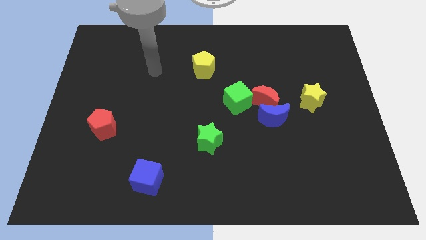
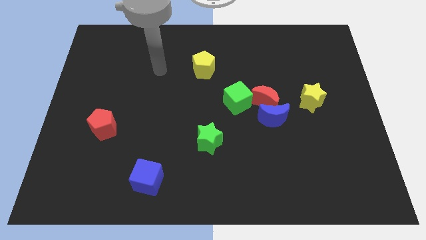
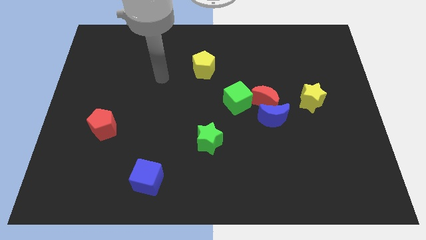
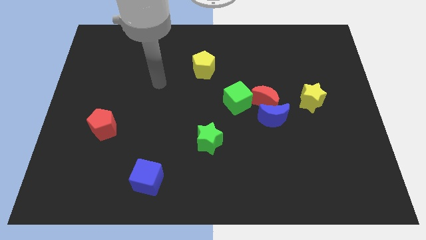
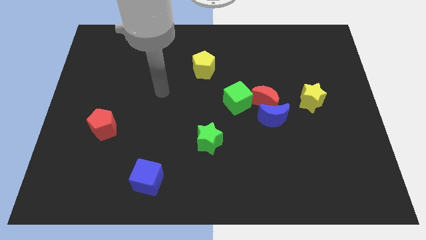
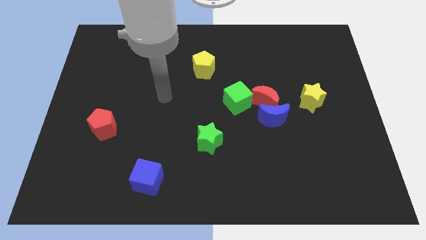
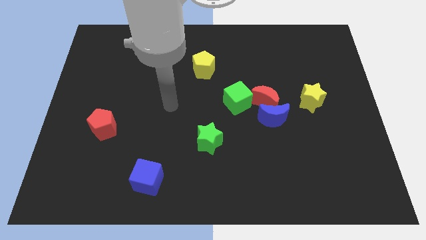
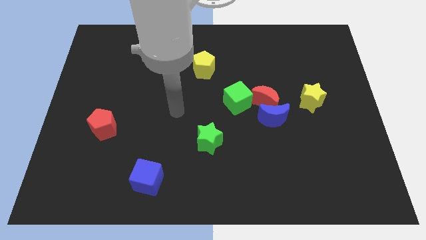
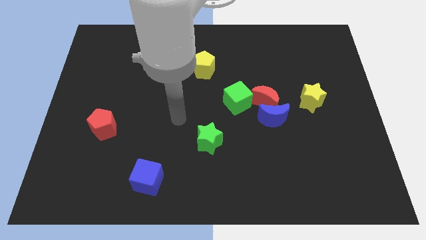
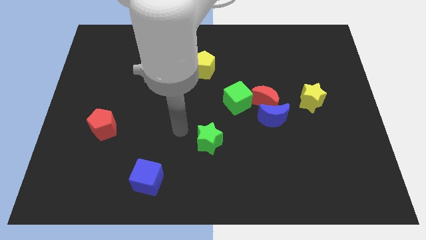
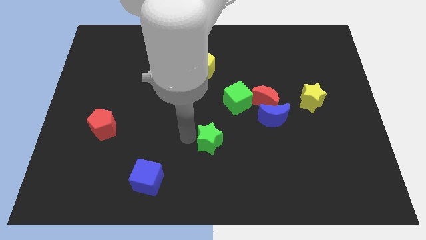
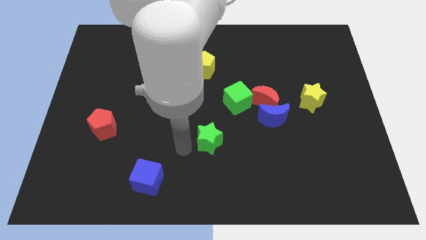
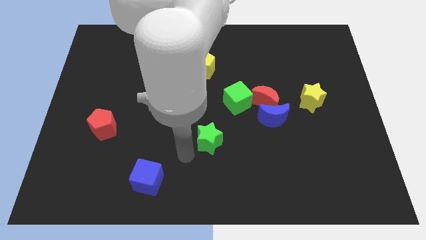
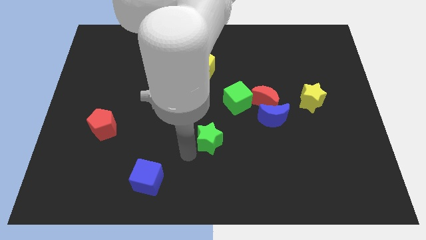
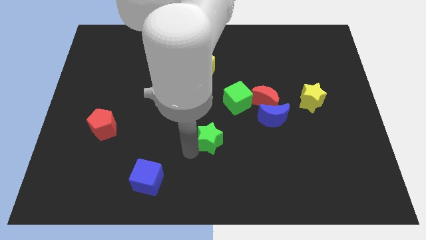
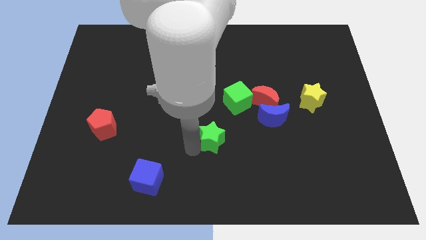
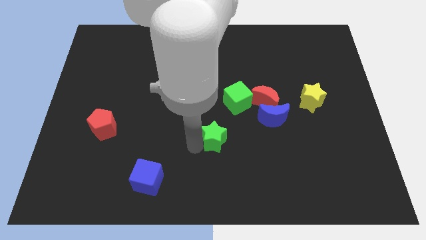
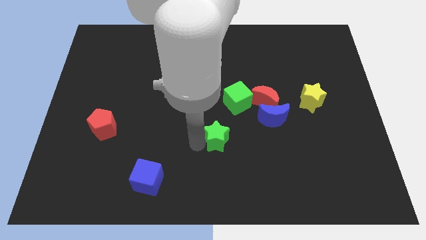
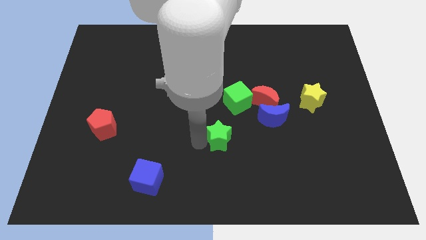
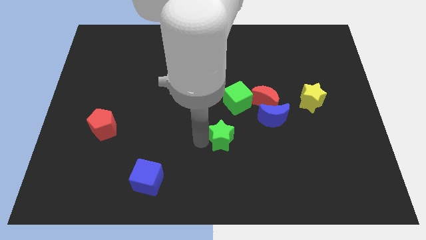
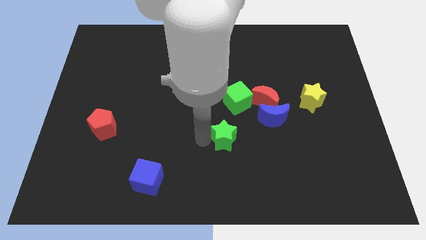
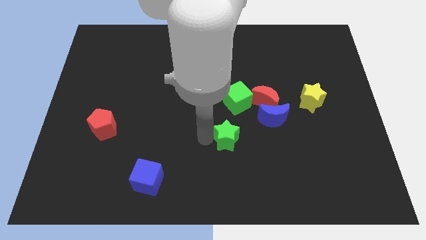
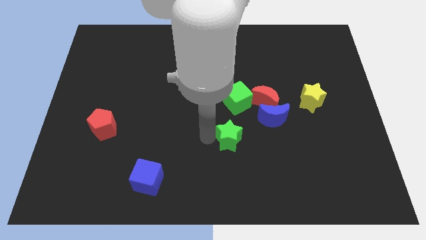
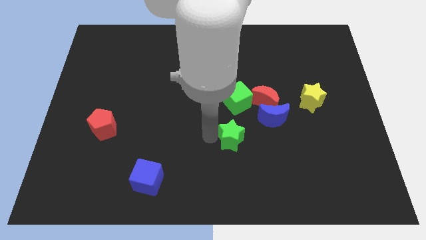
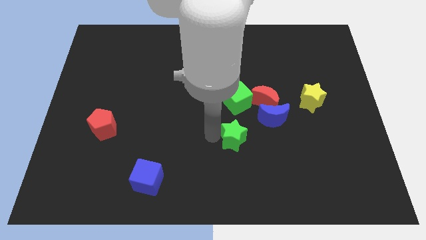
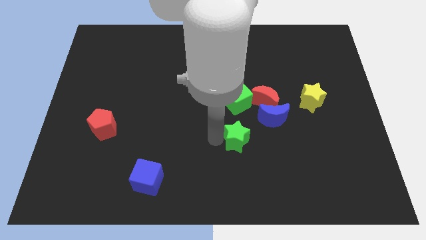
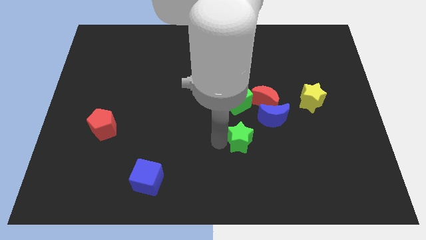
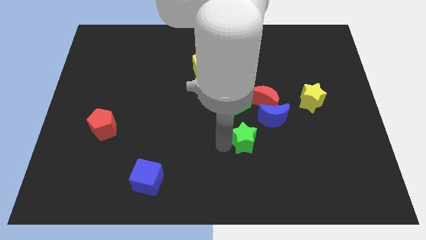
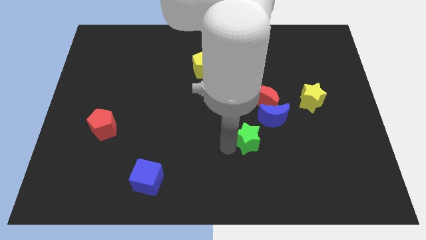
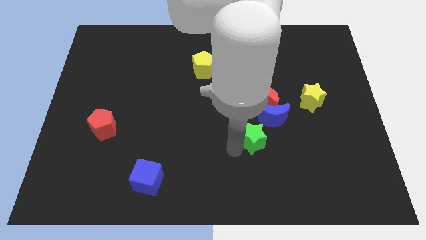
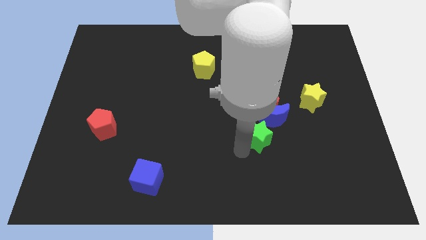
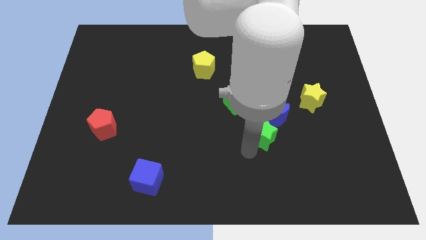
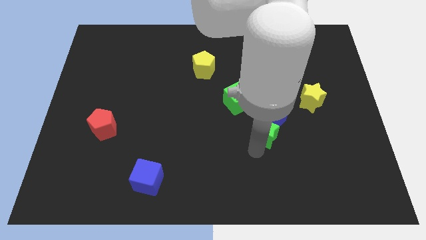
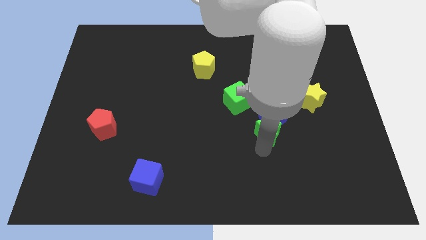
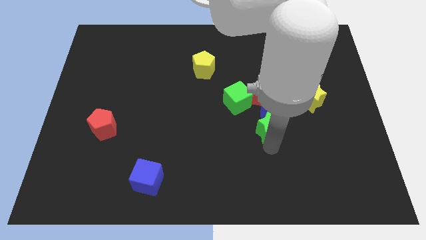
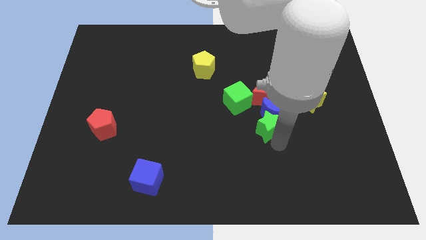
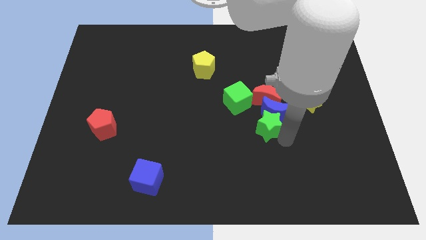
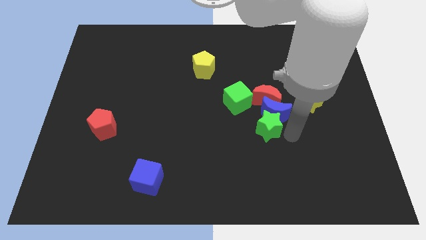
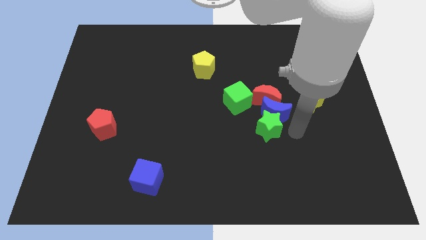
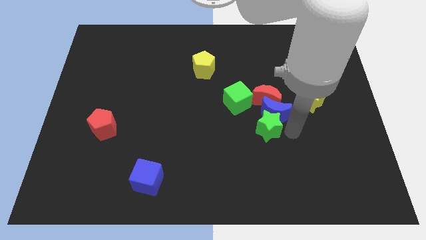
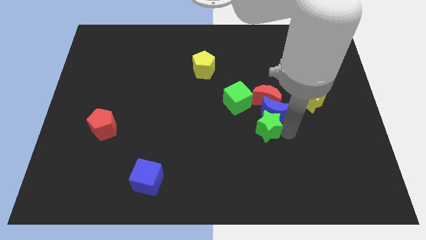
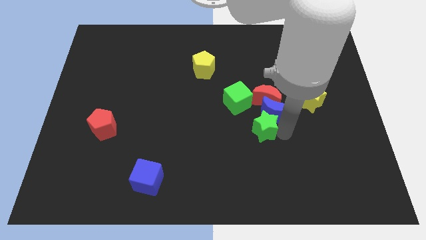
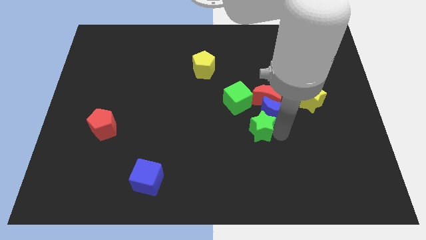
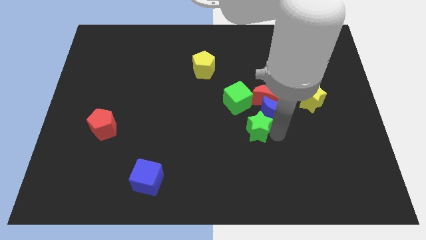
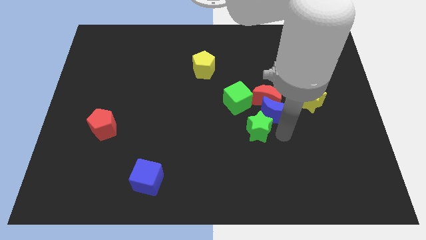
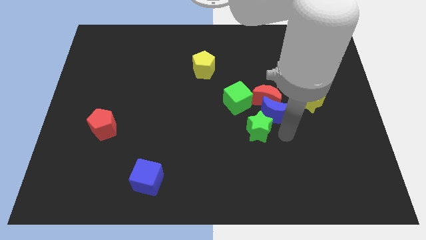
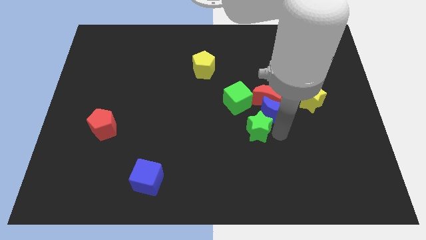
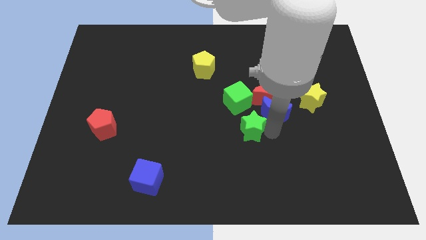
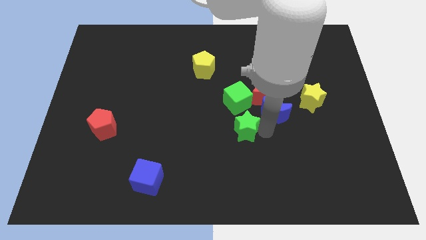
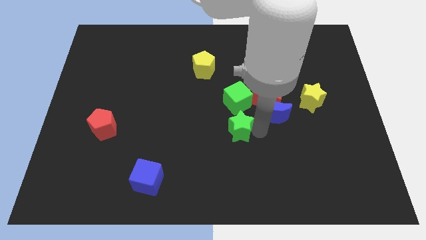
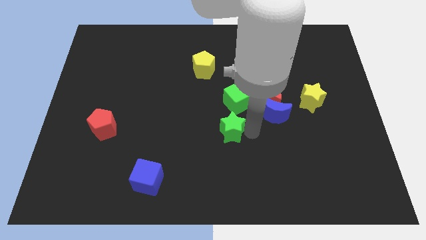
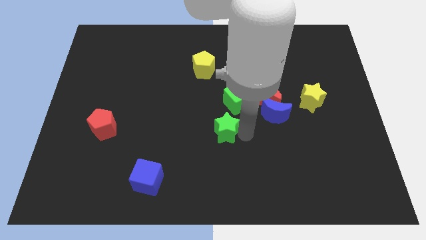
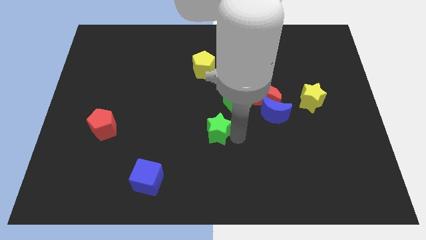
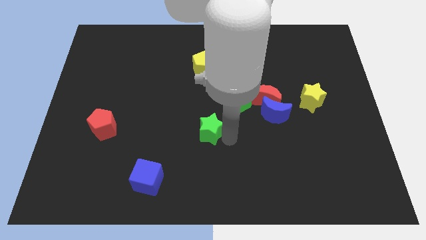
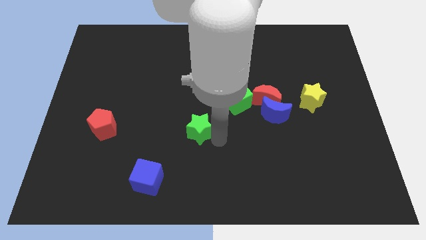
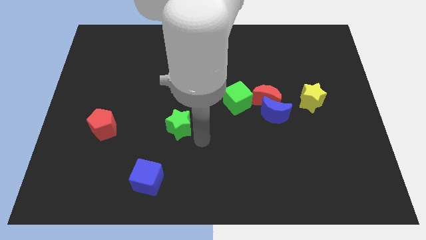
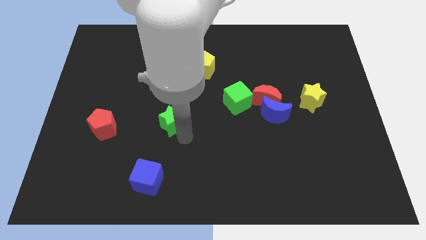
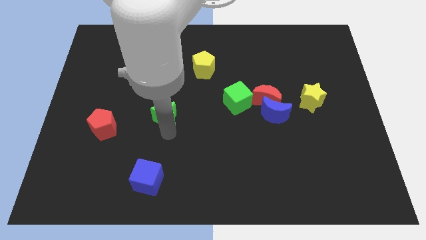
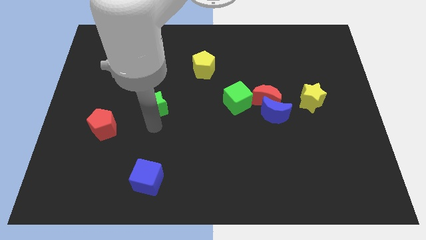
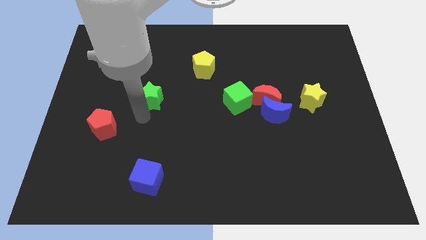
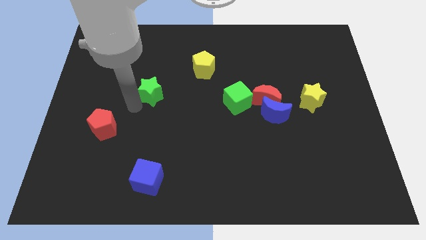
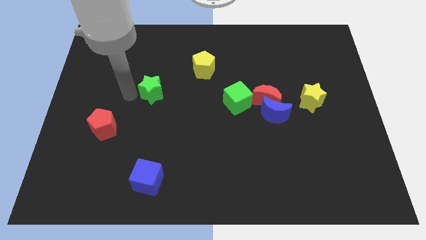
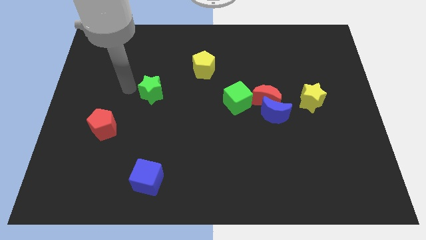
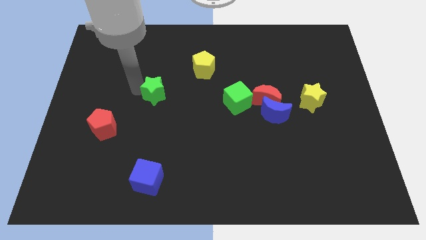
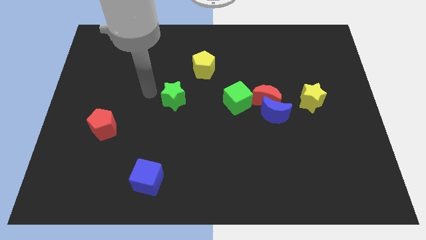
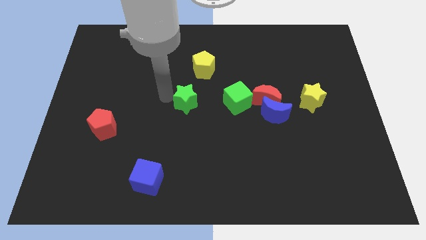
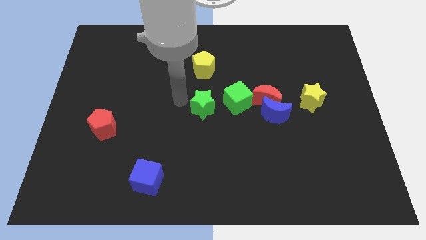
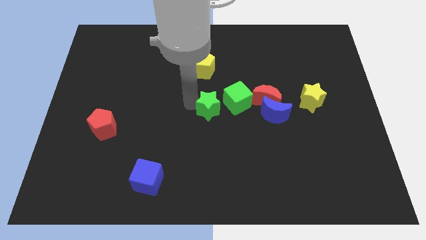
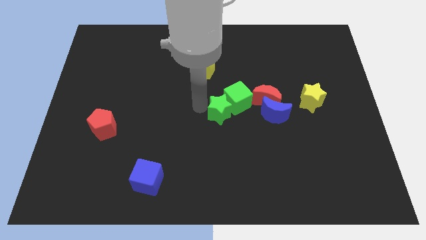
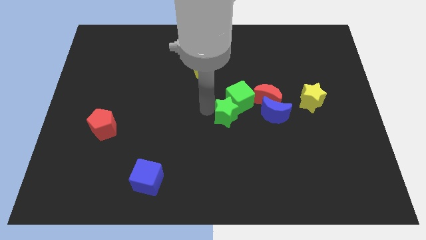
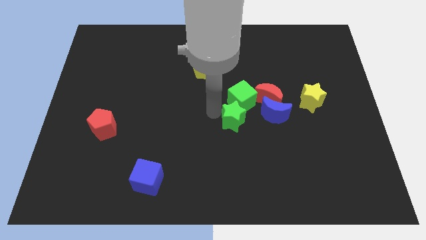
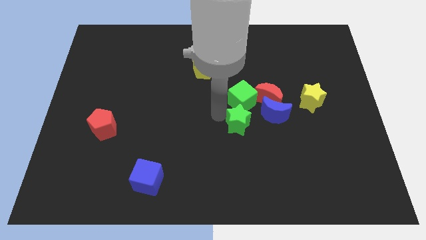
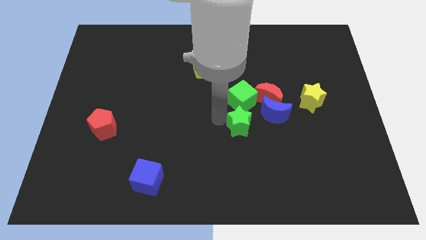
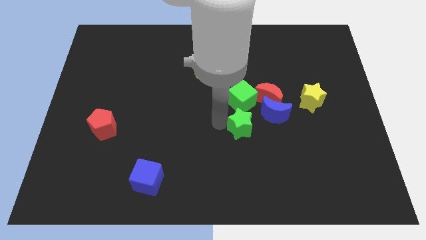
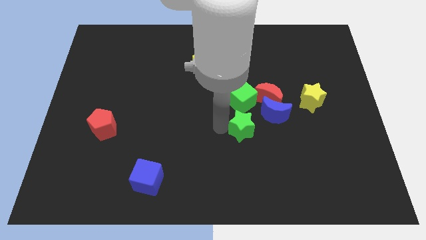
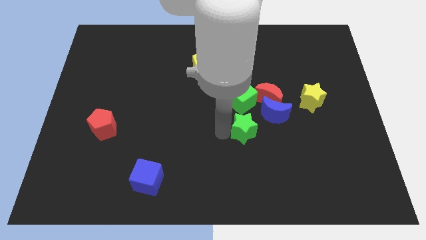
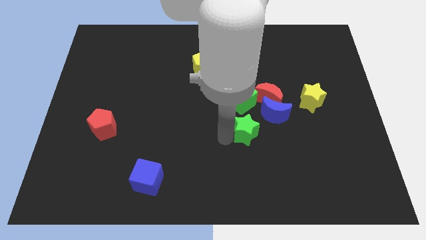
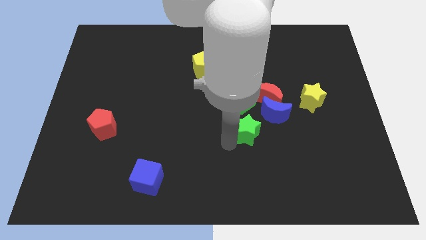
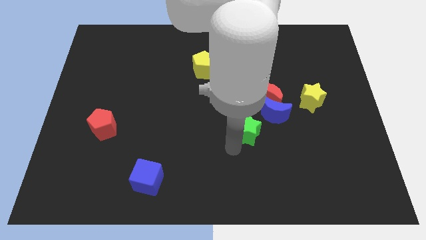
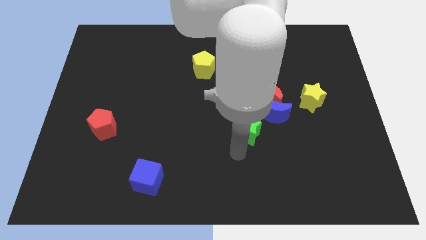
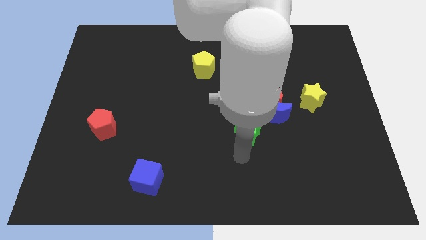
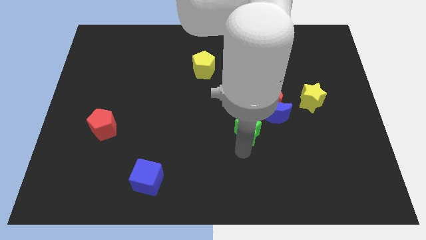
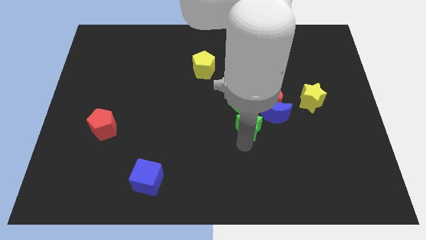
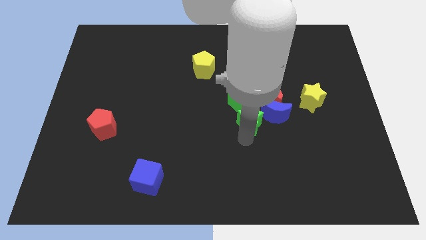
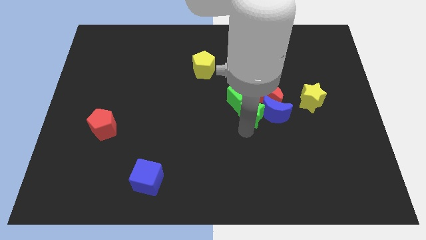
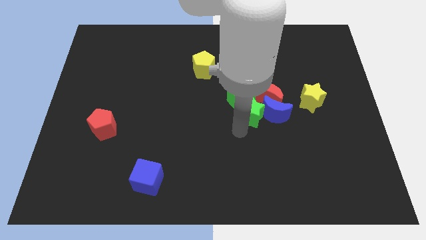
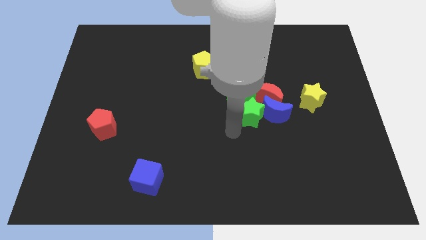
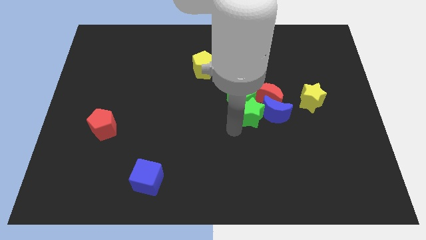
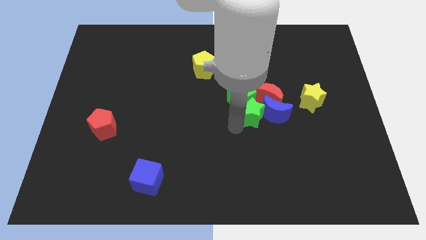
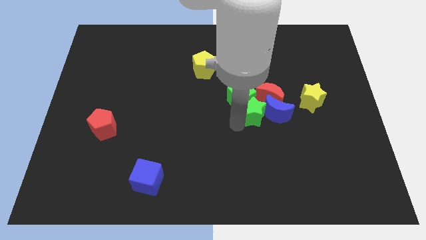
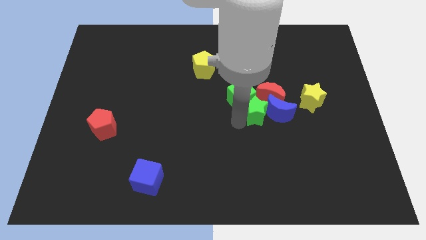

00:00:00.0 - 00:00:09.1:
put the green star towards the red moon
